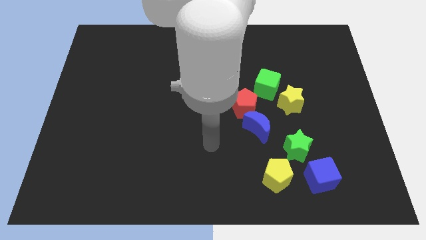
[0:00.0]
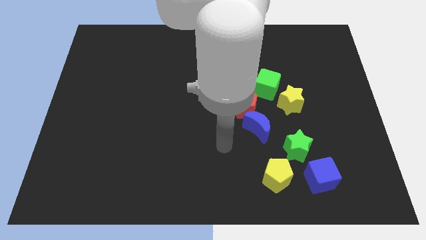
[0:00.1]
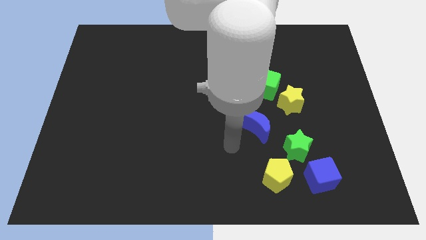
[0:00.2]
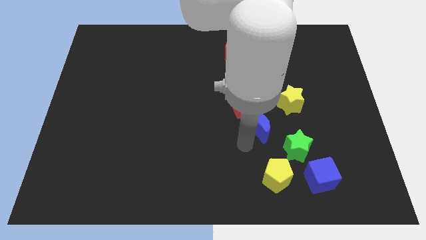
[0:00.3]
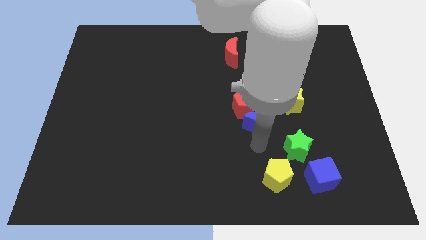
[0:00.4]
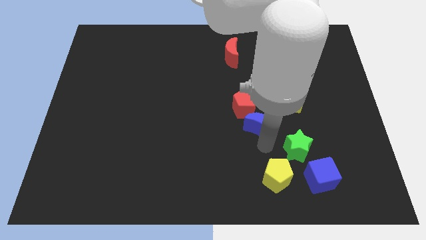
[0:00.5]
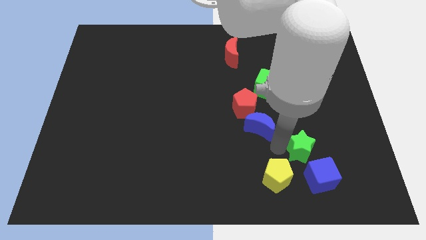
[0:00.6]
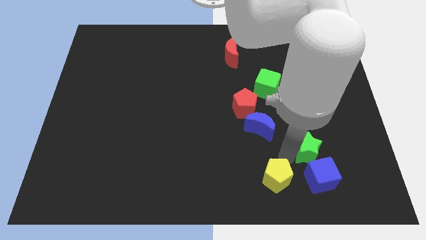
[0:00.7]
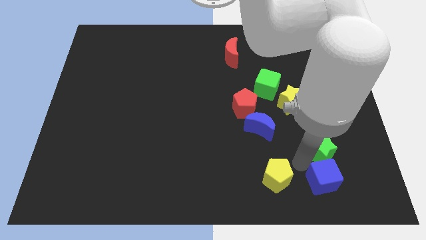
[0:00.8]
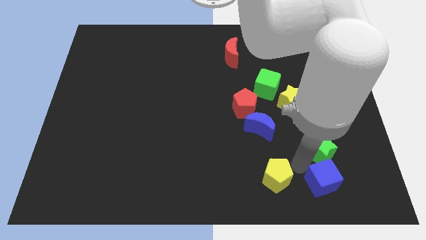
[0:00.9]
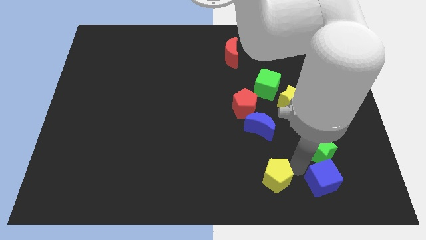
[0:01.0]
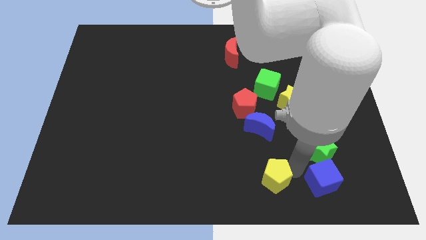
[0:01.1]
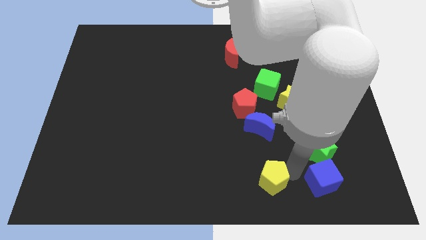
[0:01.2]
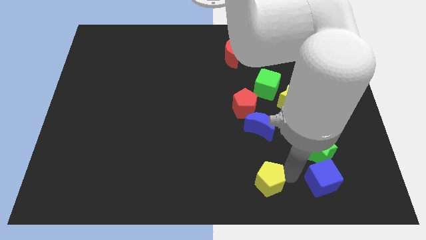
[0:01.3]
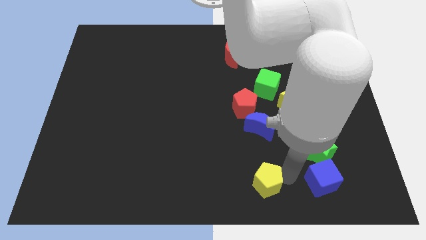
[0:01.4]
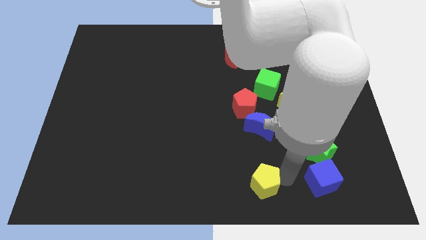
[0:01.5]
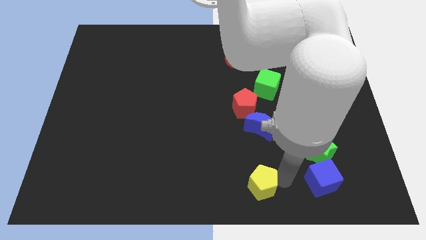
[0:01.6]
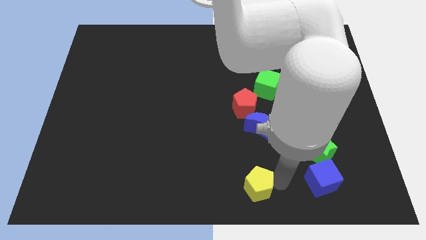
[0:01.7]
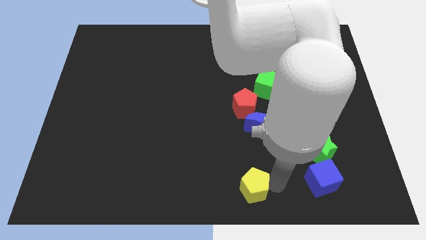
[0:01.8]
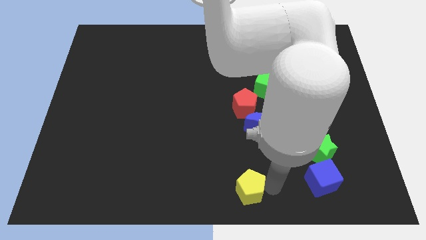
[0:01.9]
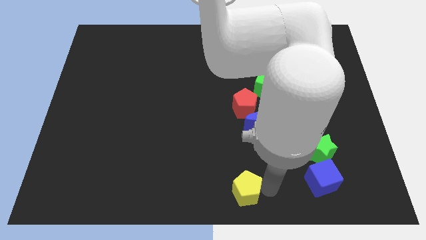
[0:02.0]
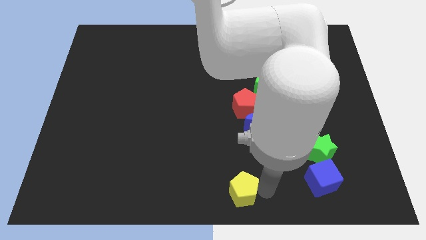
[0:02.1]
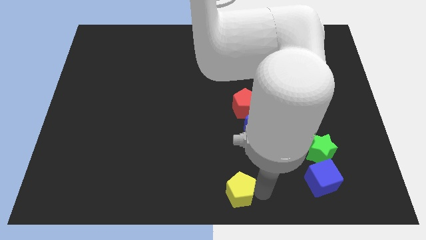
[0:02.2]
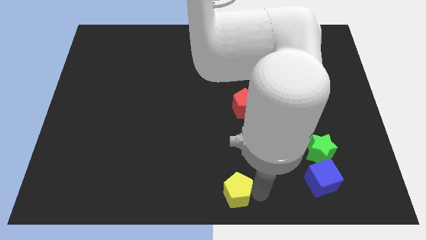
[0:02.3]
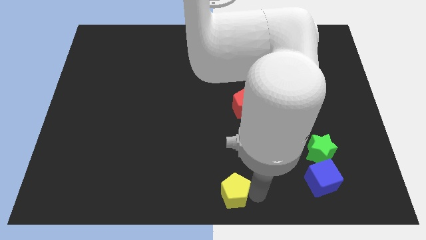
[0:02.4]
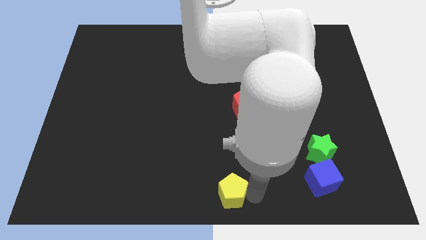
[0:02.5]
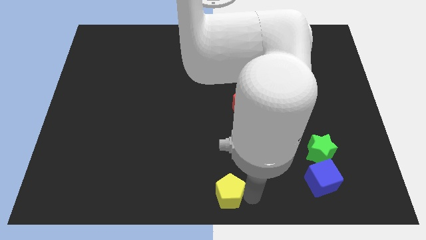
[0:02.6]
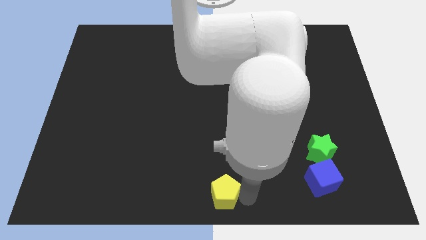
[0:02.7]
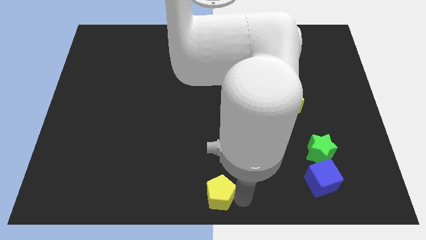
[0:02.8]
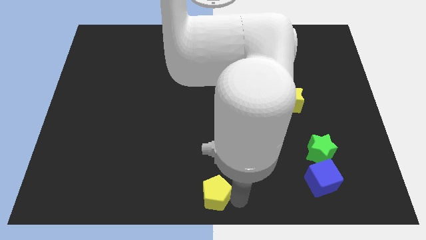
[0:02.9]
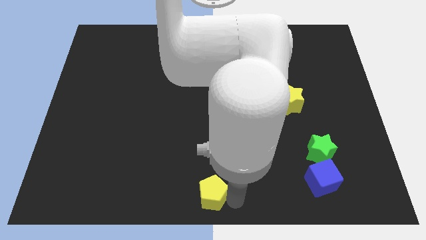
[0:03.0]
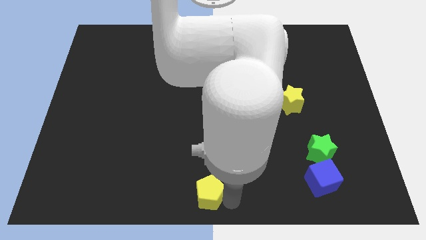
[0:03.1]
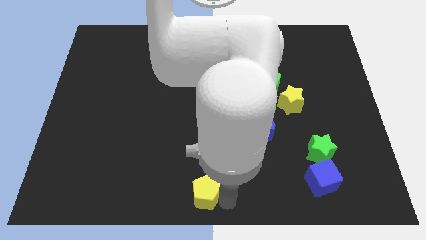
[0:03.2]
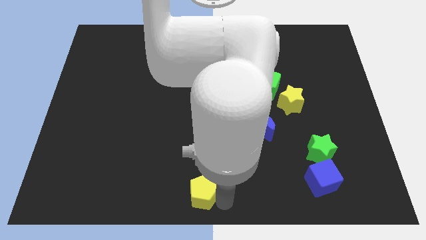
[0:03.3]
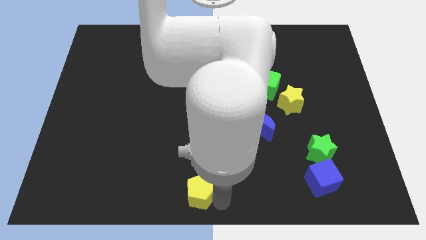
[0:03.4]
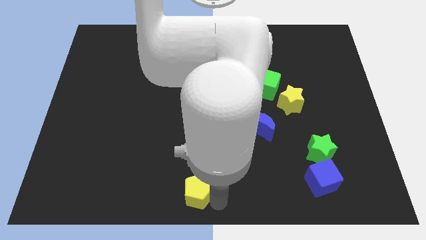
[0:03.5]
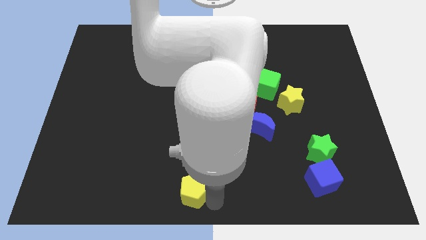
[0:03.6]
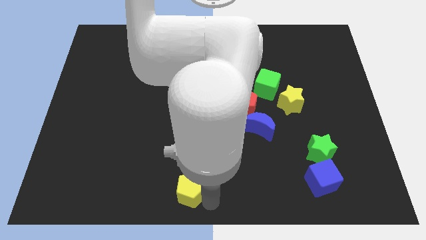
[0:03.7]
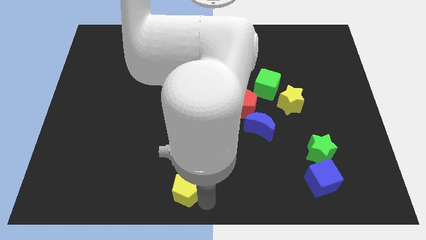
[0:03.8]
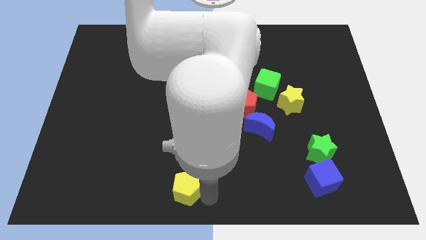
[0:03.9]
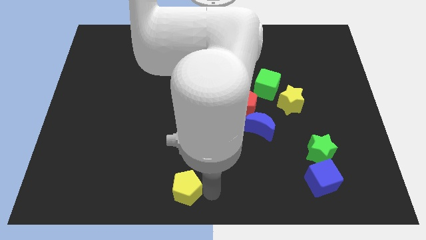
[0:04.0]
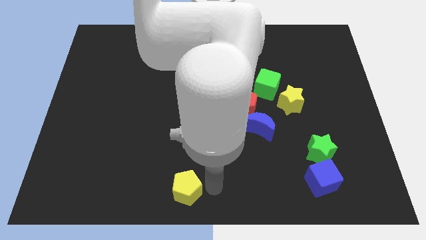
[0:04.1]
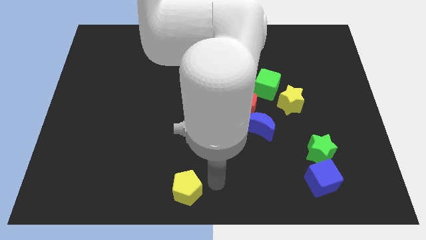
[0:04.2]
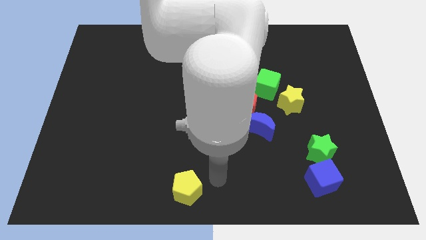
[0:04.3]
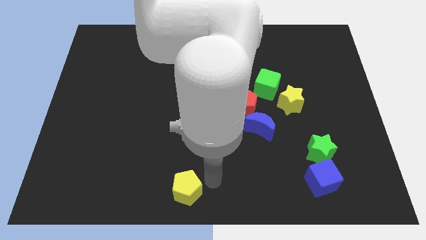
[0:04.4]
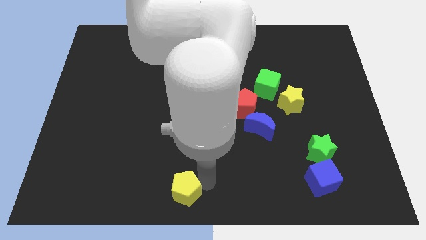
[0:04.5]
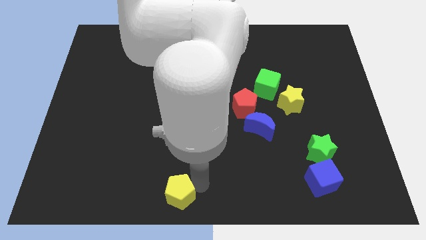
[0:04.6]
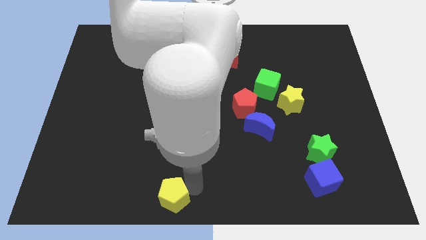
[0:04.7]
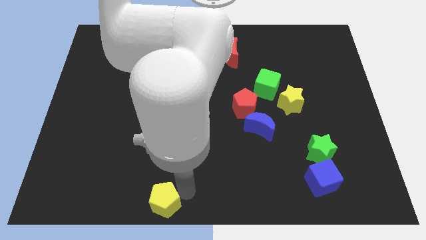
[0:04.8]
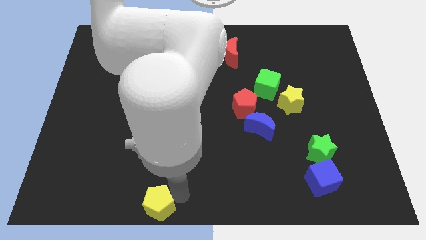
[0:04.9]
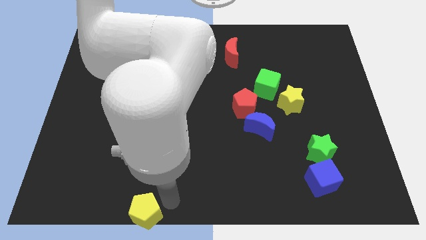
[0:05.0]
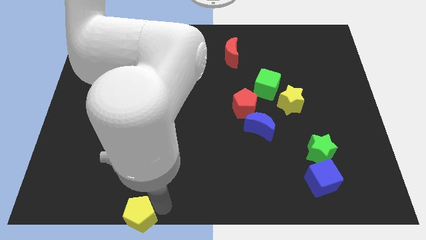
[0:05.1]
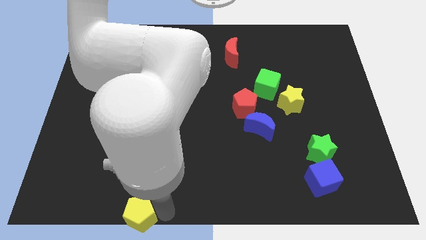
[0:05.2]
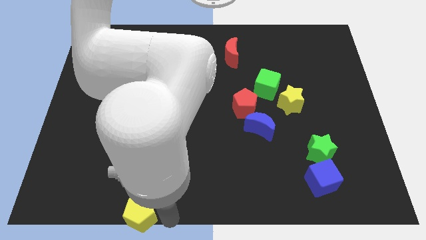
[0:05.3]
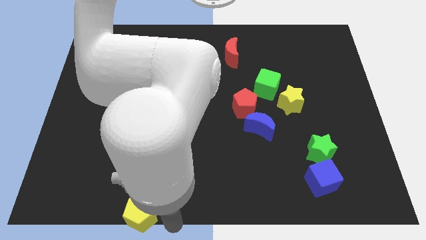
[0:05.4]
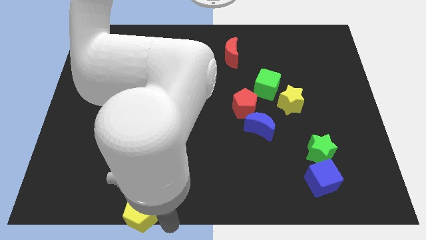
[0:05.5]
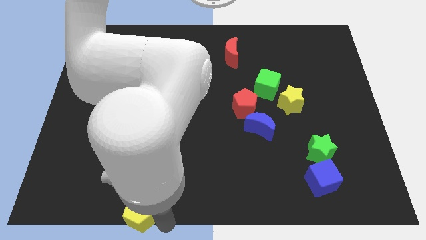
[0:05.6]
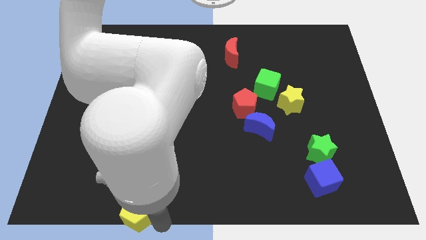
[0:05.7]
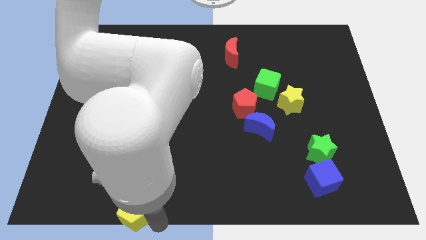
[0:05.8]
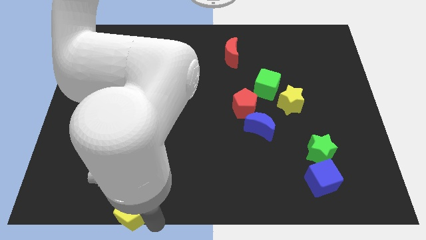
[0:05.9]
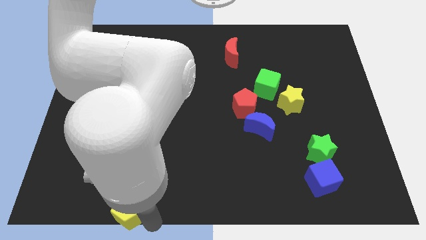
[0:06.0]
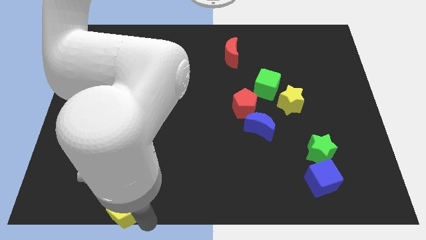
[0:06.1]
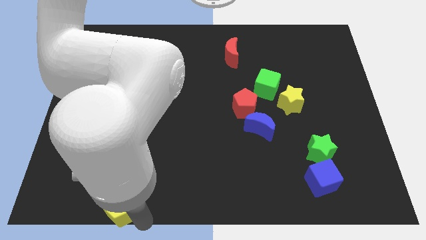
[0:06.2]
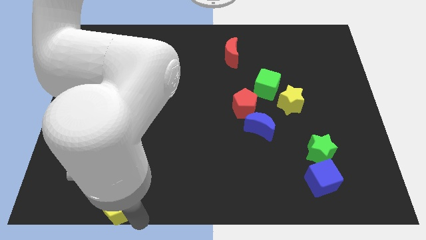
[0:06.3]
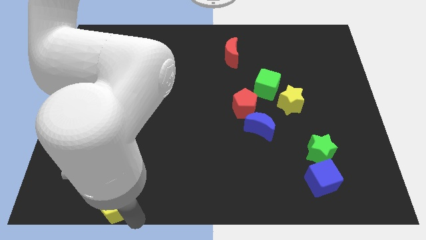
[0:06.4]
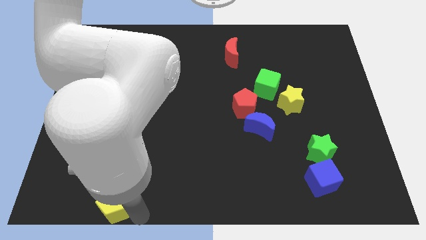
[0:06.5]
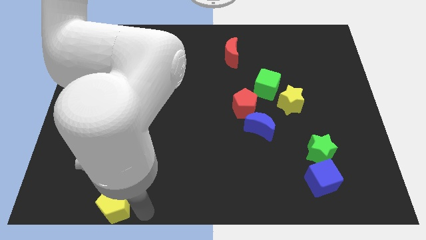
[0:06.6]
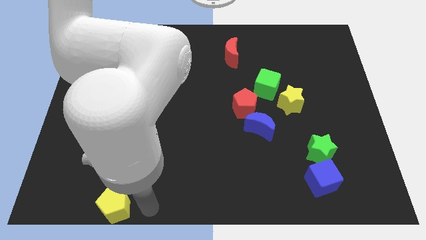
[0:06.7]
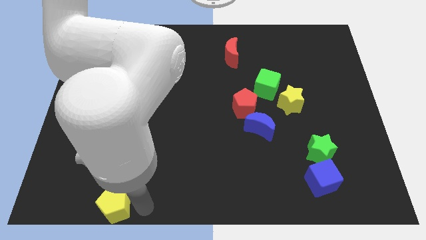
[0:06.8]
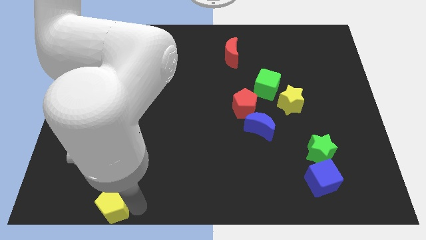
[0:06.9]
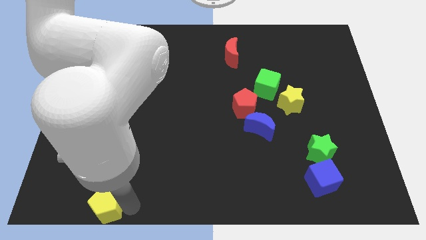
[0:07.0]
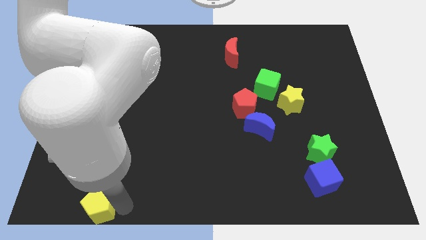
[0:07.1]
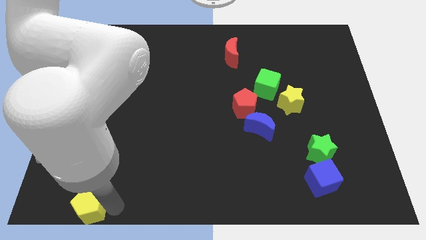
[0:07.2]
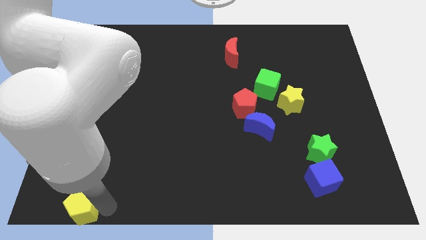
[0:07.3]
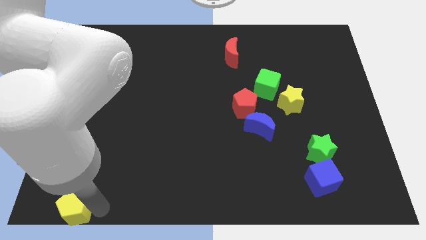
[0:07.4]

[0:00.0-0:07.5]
slide the yellow pentagon to the lower left corner
